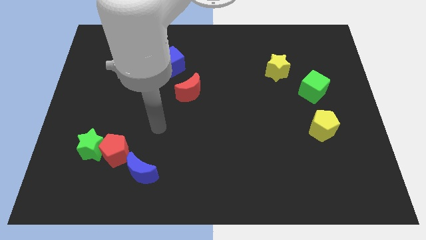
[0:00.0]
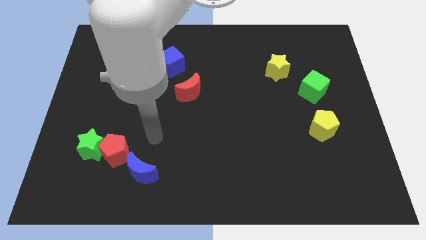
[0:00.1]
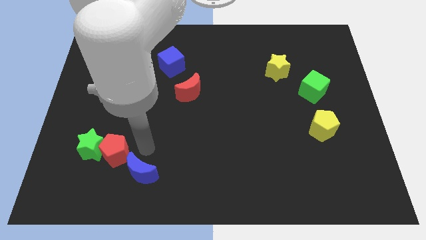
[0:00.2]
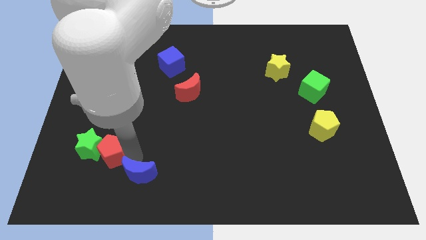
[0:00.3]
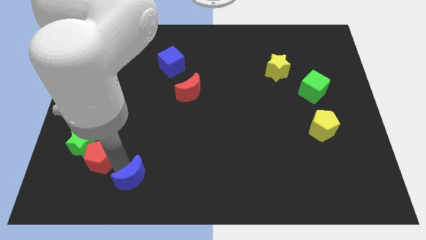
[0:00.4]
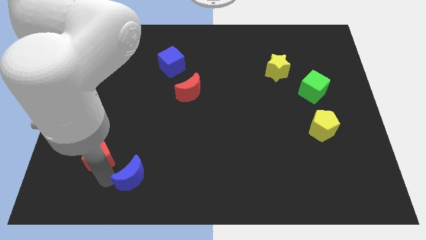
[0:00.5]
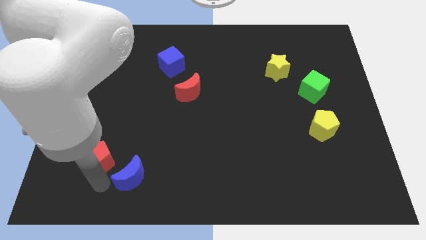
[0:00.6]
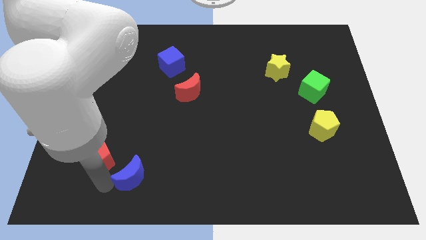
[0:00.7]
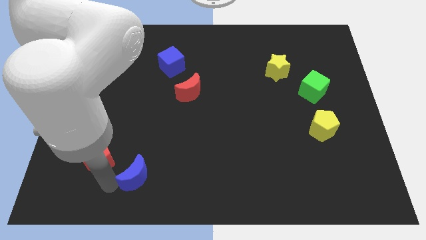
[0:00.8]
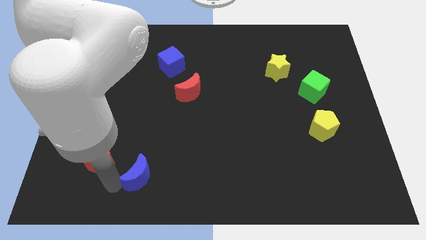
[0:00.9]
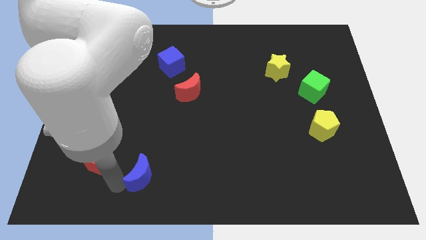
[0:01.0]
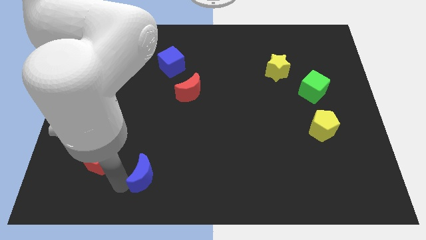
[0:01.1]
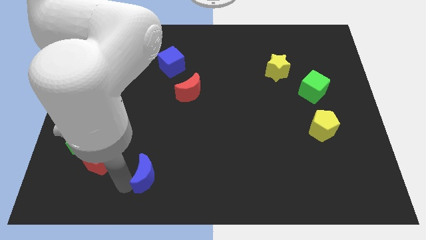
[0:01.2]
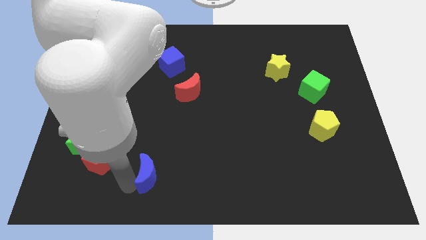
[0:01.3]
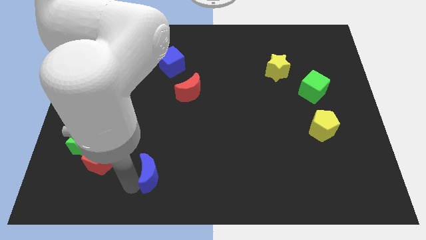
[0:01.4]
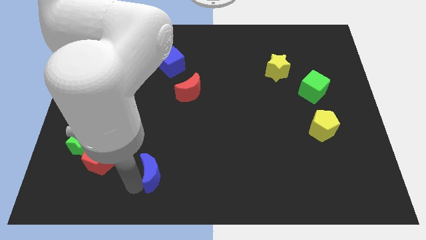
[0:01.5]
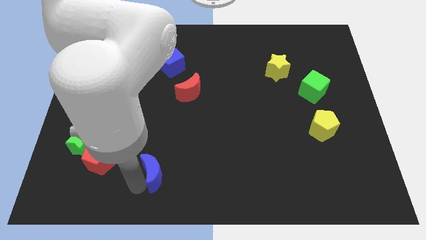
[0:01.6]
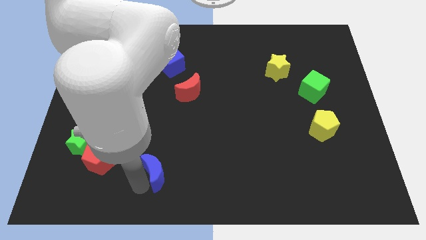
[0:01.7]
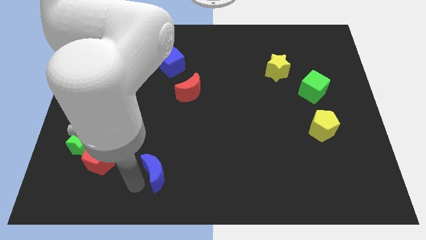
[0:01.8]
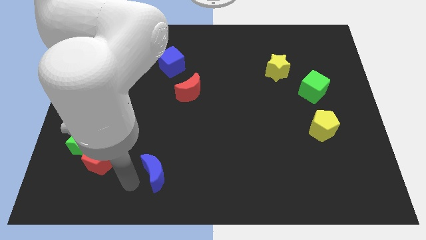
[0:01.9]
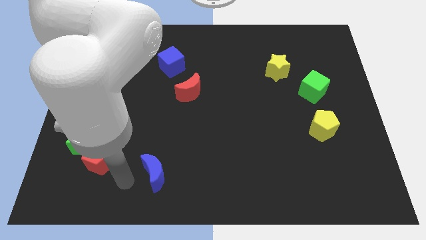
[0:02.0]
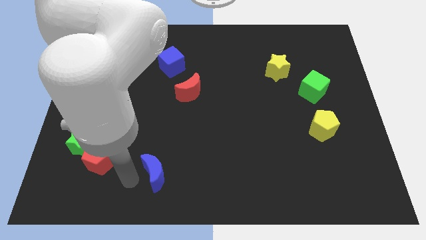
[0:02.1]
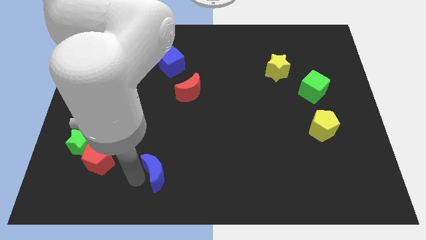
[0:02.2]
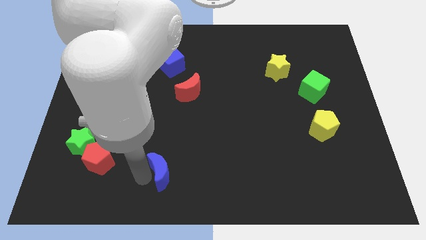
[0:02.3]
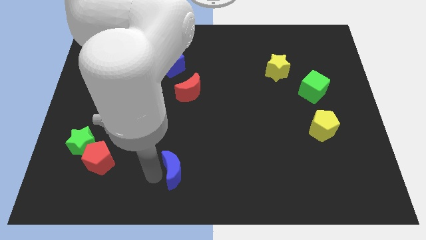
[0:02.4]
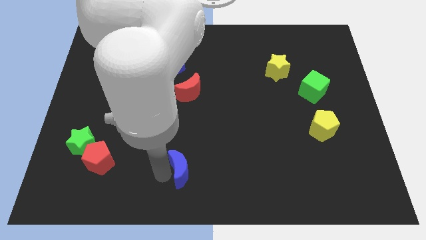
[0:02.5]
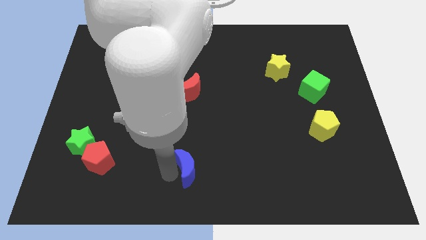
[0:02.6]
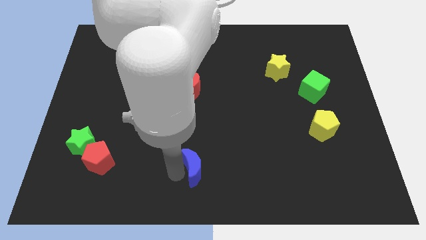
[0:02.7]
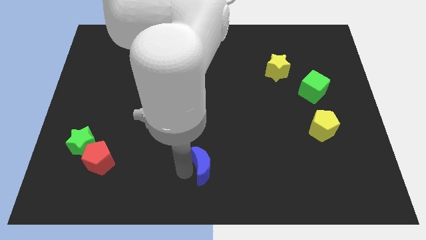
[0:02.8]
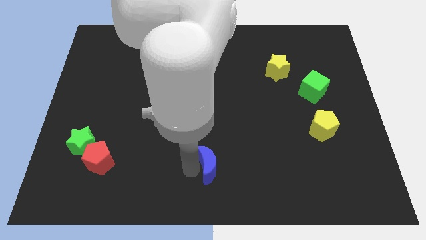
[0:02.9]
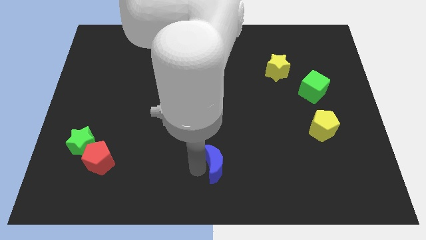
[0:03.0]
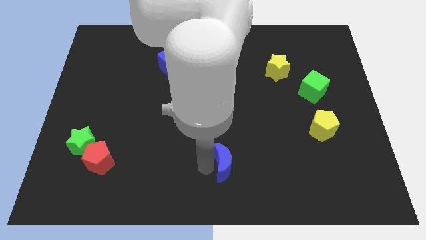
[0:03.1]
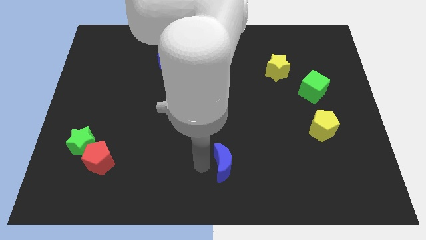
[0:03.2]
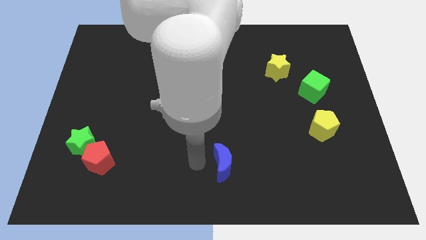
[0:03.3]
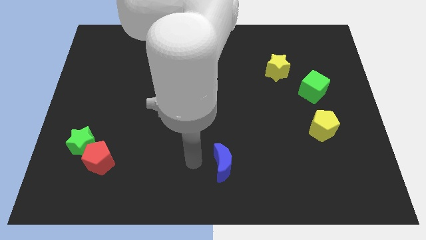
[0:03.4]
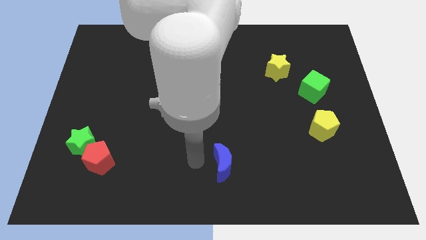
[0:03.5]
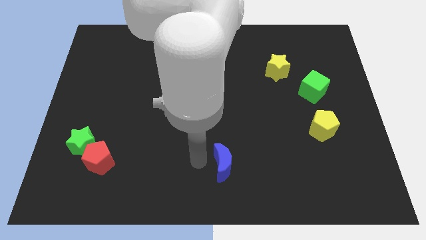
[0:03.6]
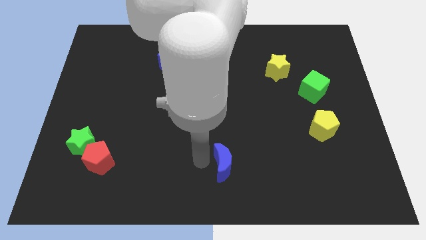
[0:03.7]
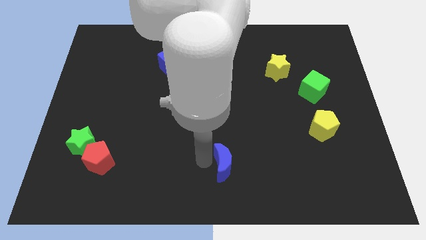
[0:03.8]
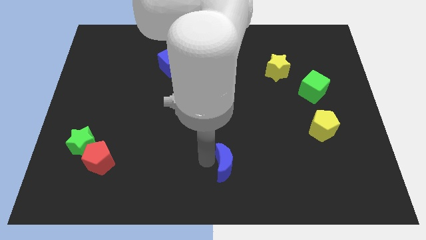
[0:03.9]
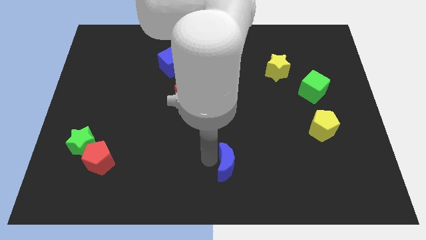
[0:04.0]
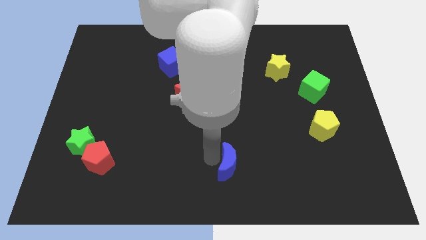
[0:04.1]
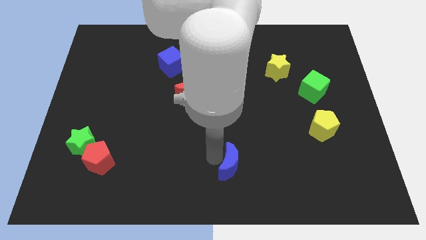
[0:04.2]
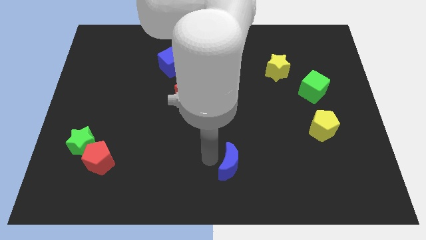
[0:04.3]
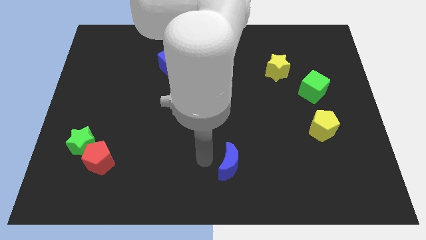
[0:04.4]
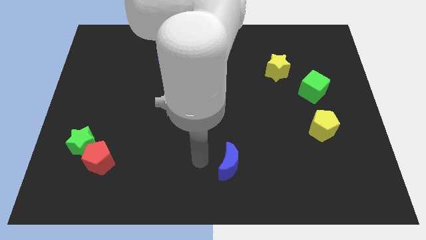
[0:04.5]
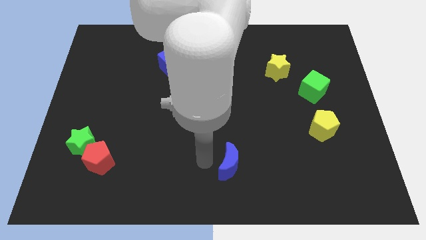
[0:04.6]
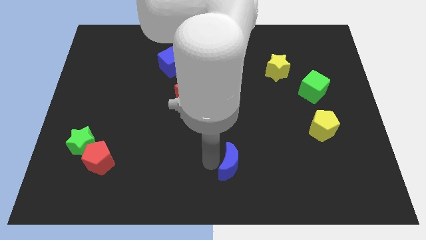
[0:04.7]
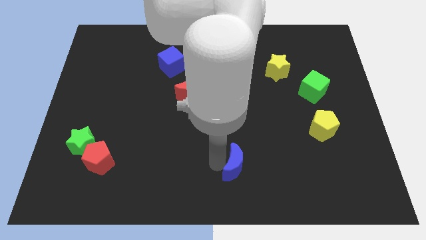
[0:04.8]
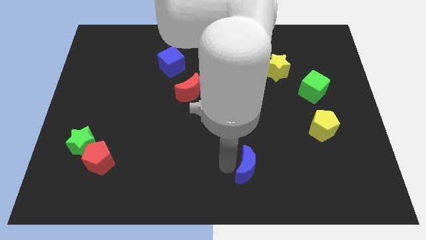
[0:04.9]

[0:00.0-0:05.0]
slide the blue moon to the right

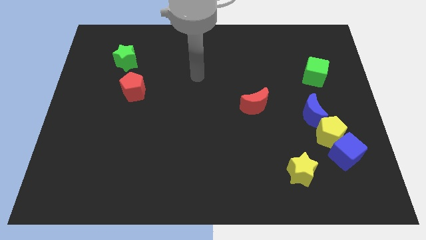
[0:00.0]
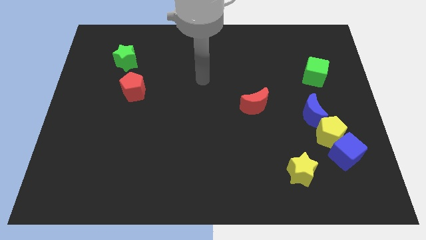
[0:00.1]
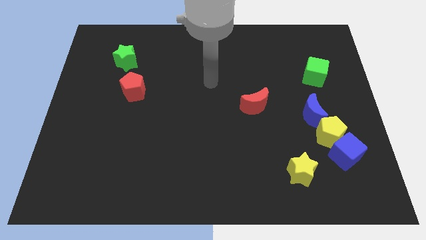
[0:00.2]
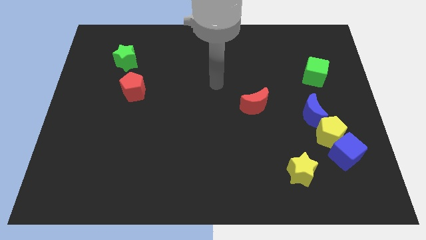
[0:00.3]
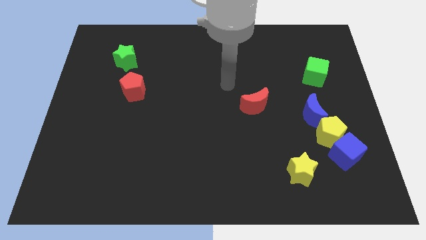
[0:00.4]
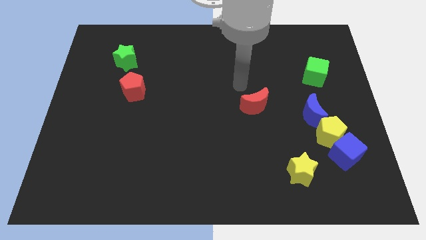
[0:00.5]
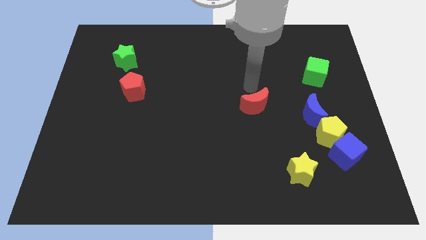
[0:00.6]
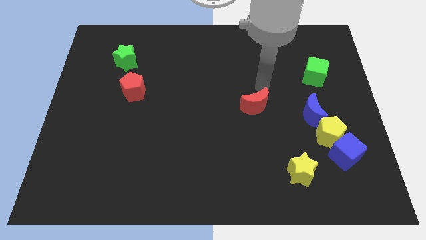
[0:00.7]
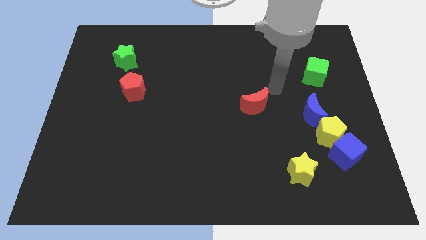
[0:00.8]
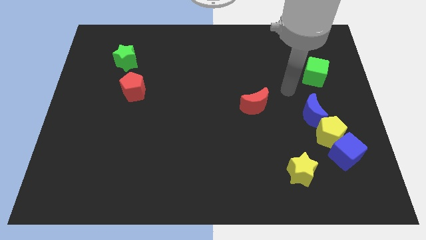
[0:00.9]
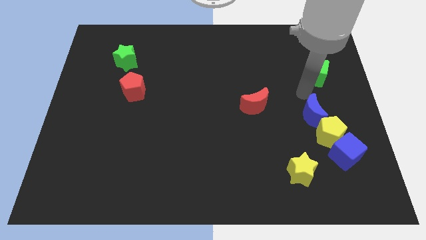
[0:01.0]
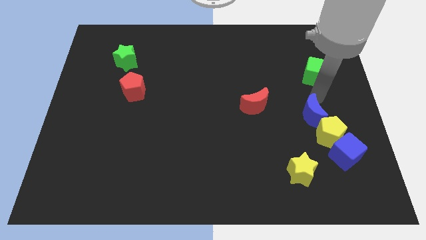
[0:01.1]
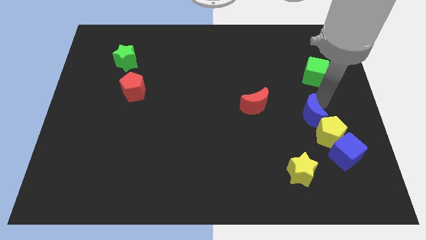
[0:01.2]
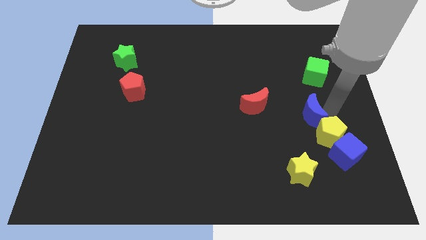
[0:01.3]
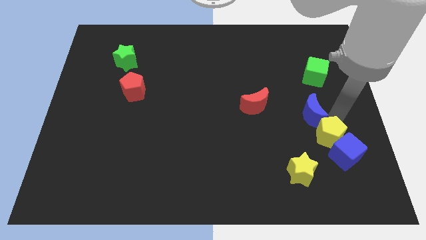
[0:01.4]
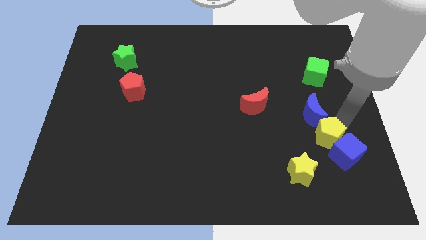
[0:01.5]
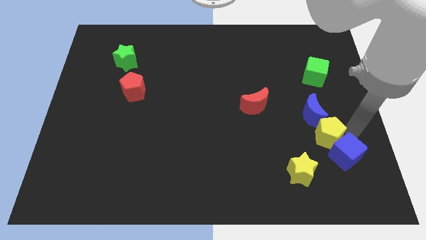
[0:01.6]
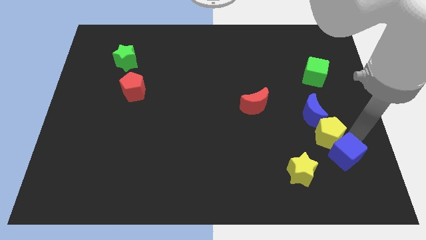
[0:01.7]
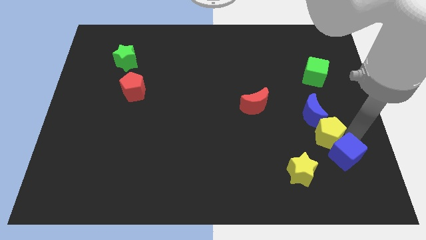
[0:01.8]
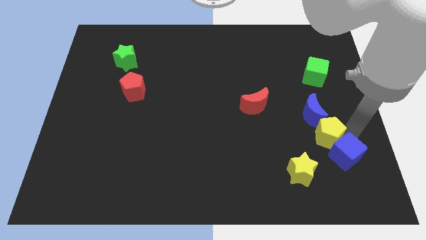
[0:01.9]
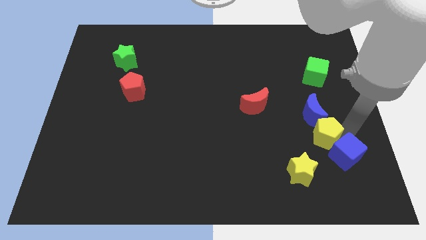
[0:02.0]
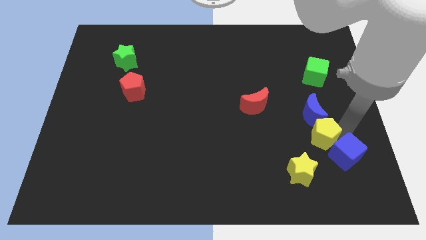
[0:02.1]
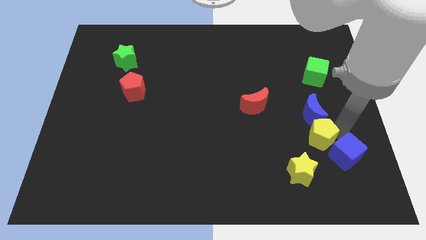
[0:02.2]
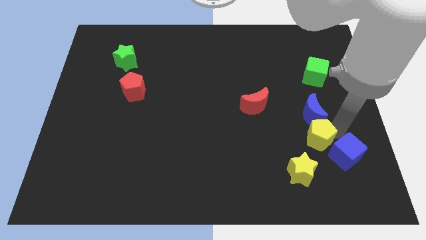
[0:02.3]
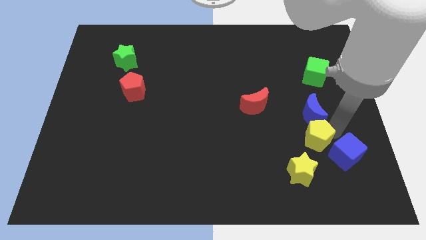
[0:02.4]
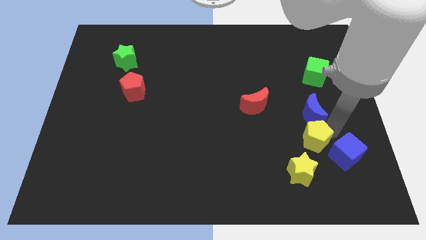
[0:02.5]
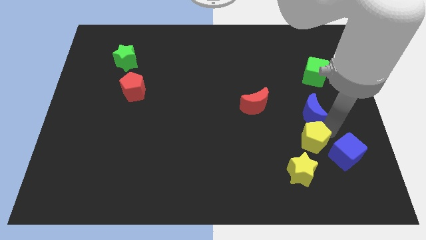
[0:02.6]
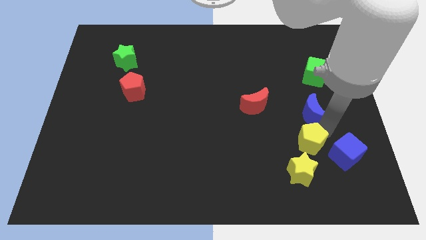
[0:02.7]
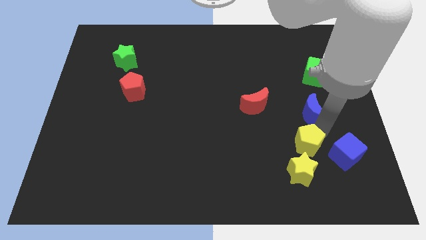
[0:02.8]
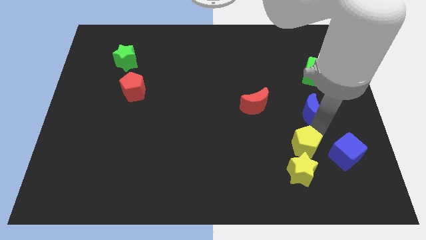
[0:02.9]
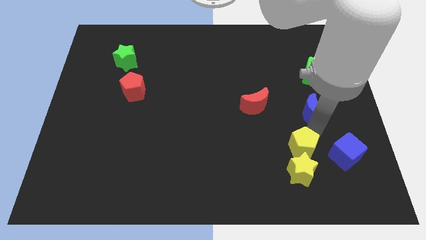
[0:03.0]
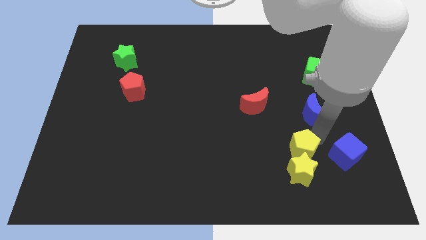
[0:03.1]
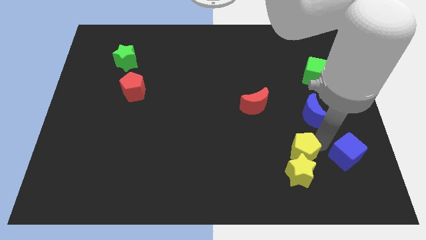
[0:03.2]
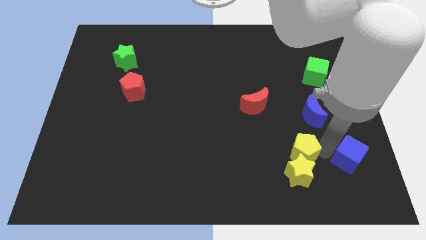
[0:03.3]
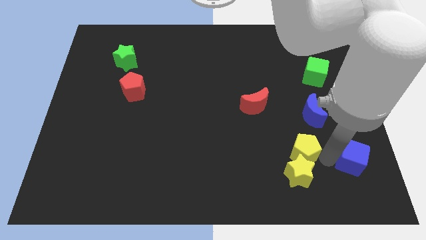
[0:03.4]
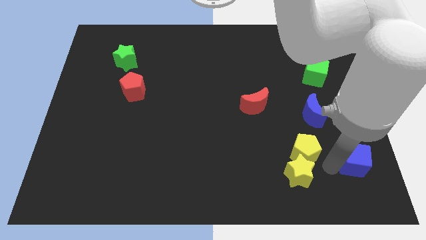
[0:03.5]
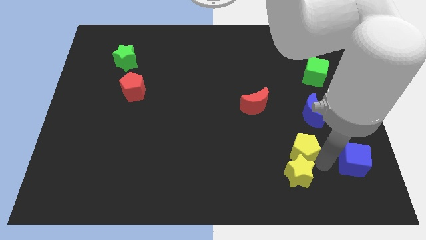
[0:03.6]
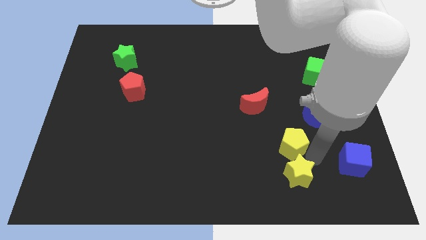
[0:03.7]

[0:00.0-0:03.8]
slide the yellow pentagon to the left somewhat
